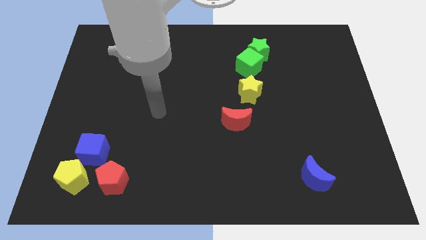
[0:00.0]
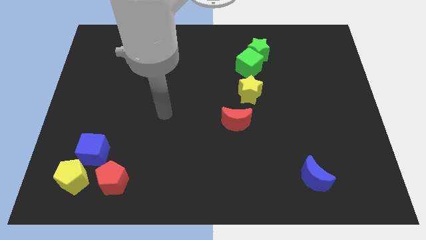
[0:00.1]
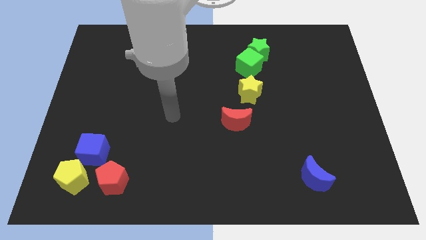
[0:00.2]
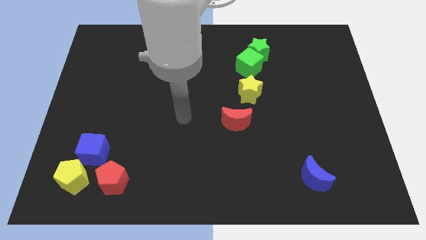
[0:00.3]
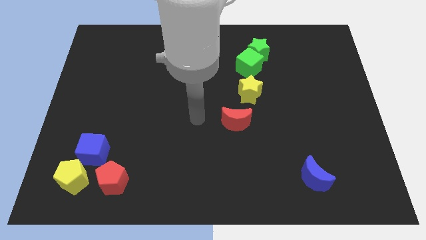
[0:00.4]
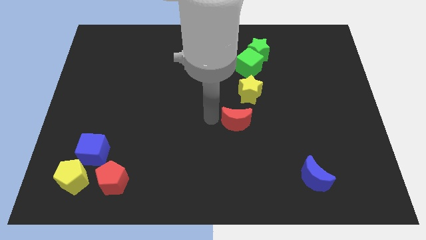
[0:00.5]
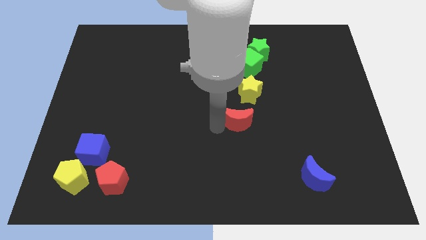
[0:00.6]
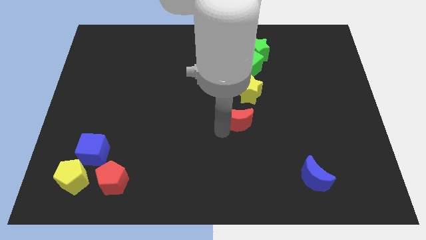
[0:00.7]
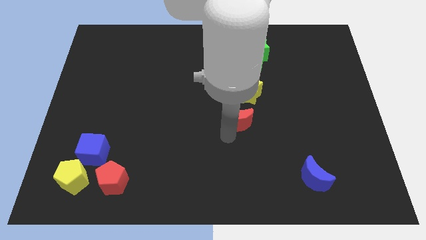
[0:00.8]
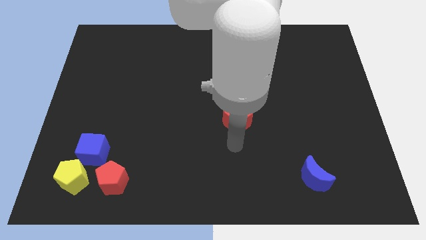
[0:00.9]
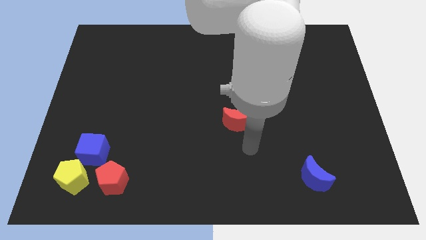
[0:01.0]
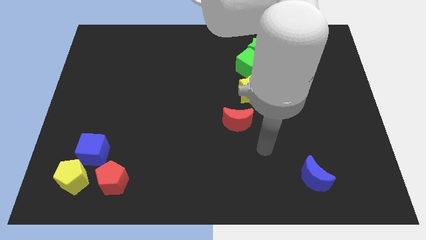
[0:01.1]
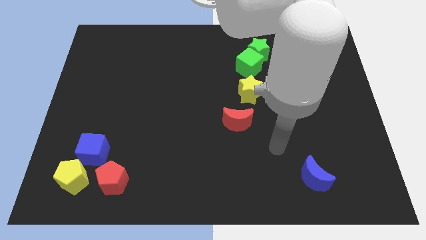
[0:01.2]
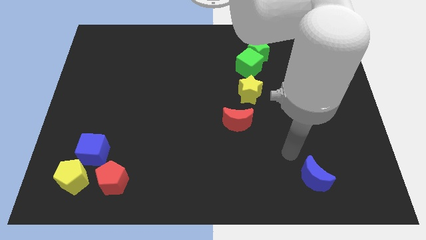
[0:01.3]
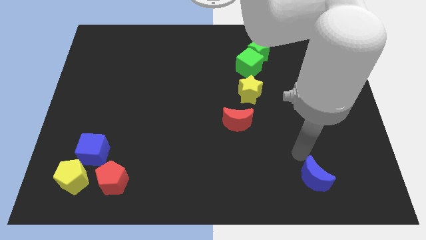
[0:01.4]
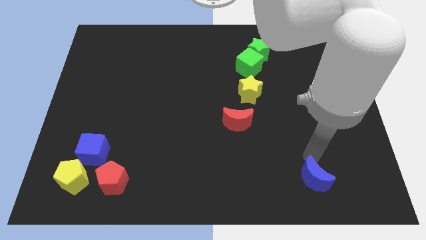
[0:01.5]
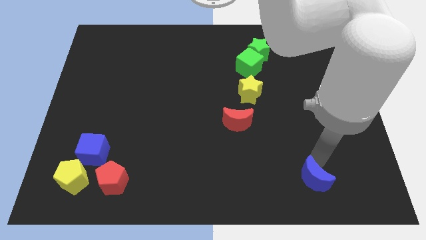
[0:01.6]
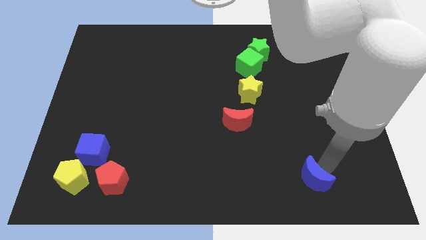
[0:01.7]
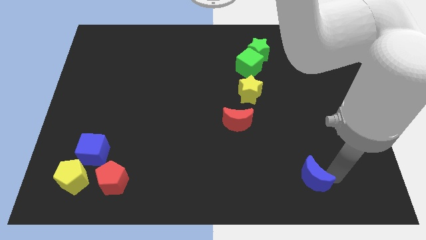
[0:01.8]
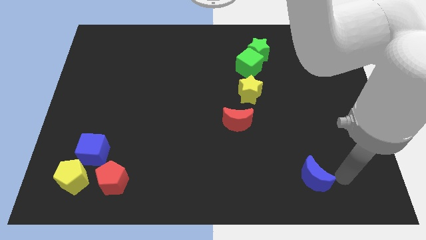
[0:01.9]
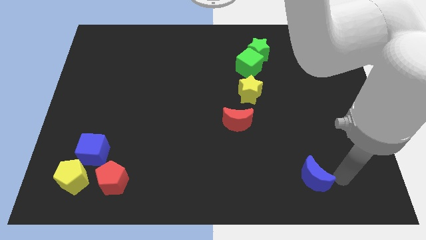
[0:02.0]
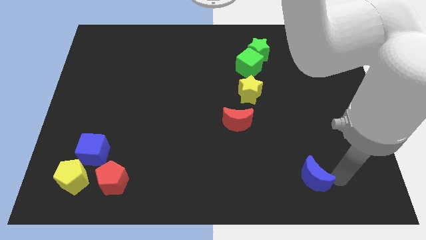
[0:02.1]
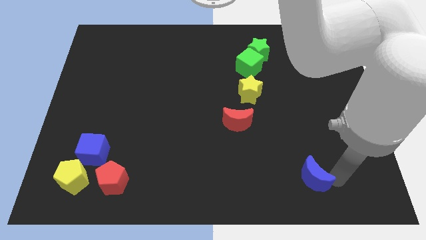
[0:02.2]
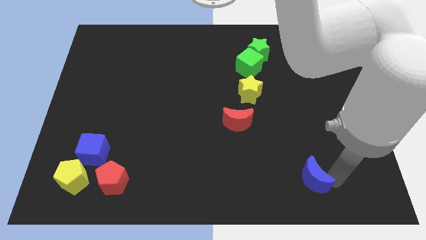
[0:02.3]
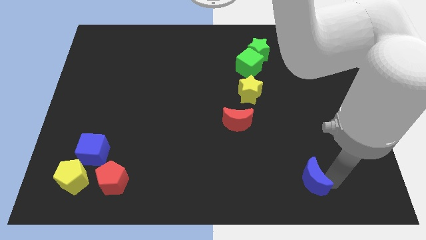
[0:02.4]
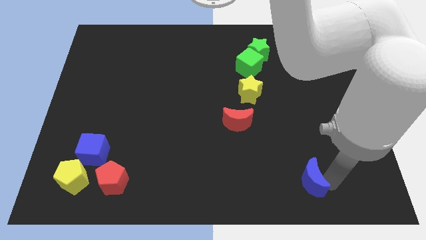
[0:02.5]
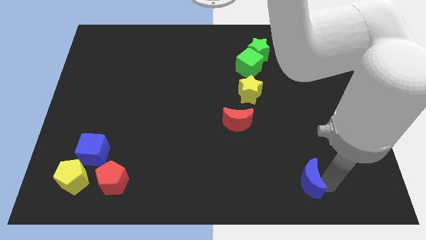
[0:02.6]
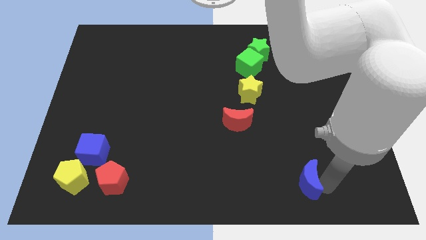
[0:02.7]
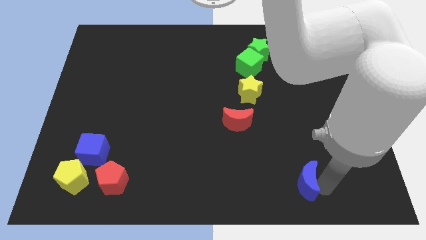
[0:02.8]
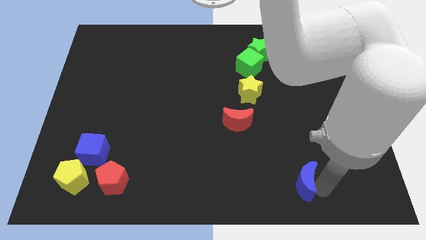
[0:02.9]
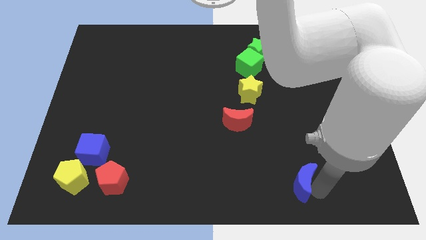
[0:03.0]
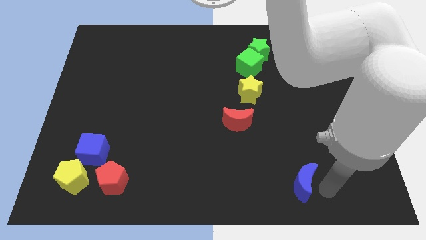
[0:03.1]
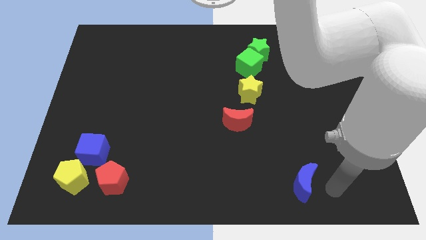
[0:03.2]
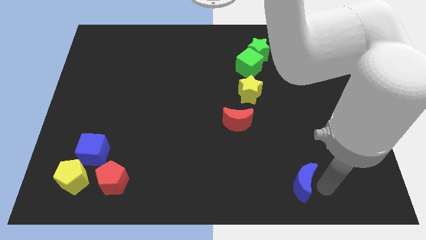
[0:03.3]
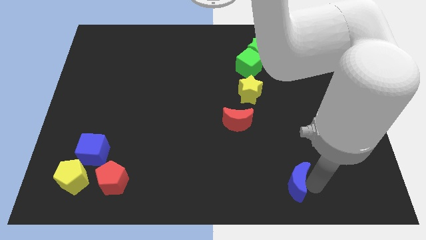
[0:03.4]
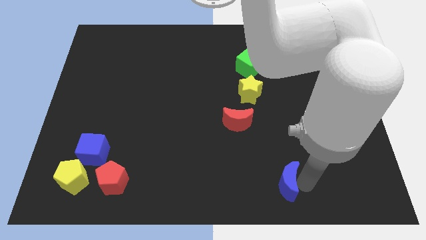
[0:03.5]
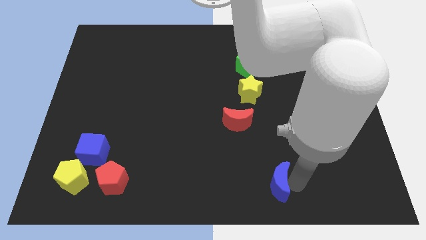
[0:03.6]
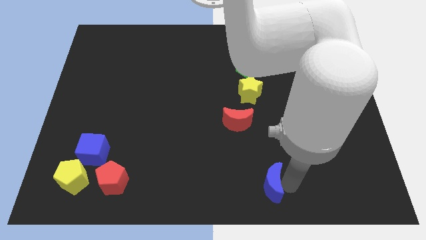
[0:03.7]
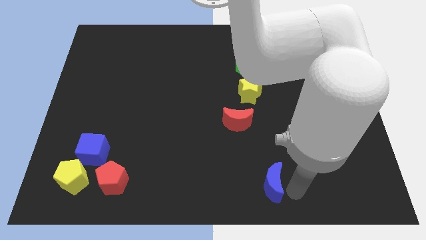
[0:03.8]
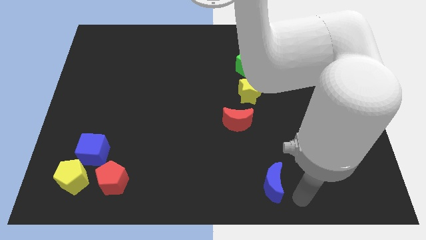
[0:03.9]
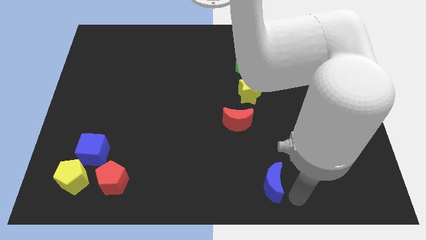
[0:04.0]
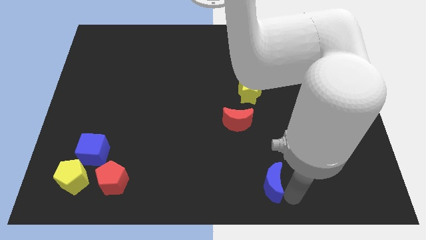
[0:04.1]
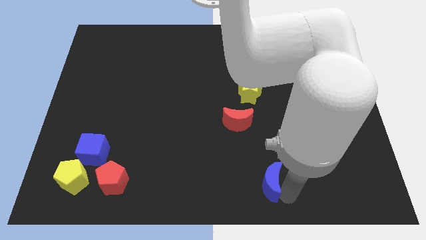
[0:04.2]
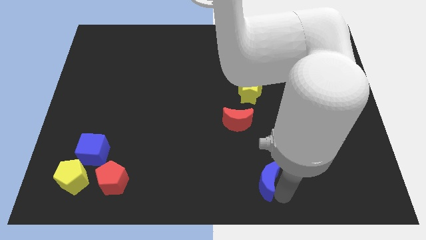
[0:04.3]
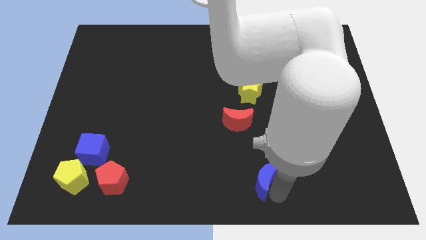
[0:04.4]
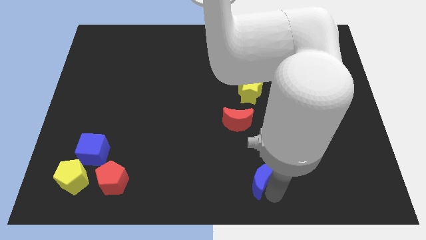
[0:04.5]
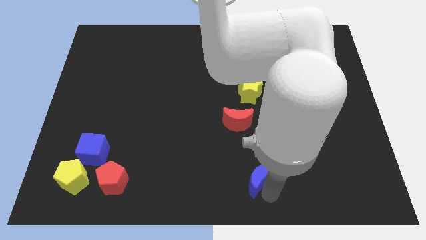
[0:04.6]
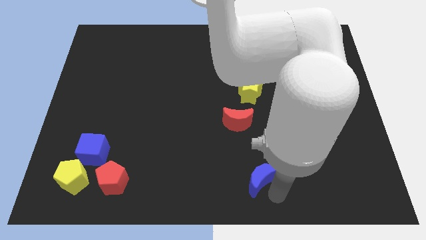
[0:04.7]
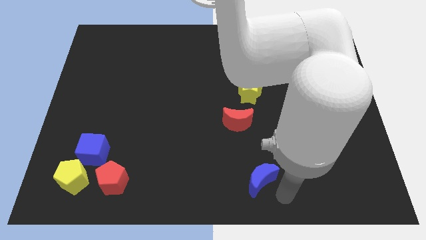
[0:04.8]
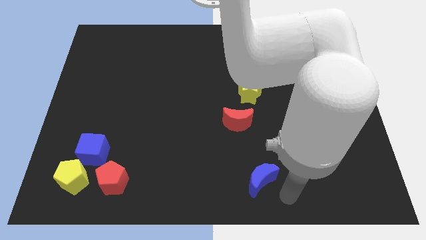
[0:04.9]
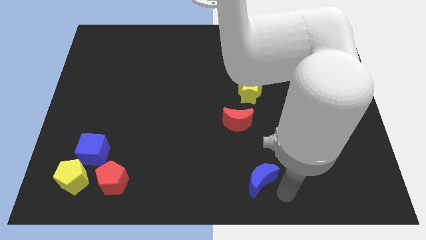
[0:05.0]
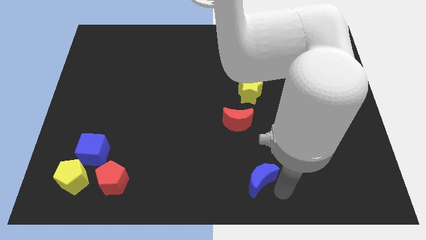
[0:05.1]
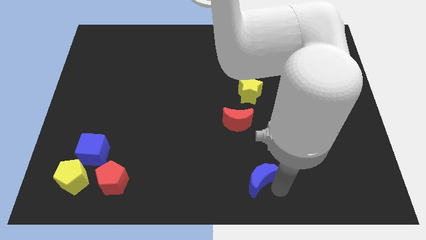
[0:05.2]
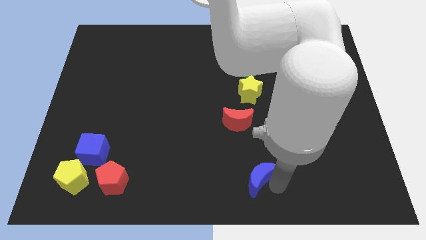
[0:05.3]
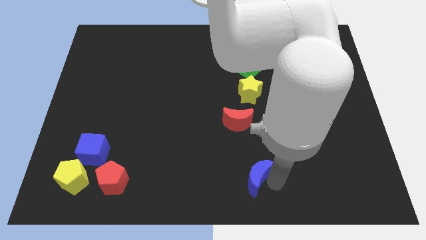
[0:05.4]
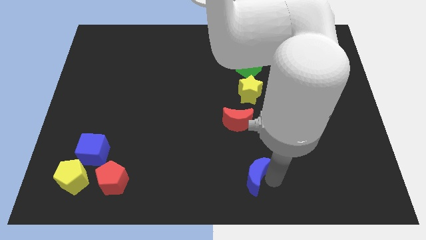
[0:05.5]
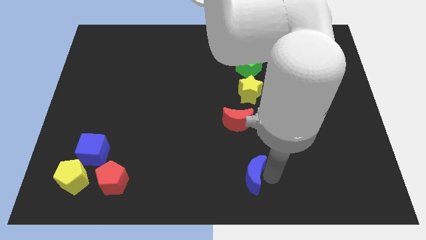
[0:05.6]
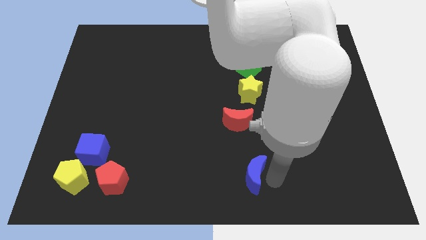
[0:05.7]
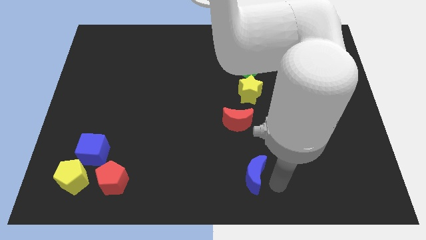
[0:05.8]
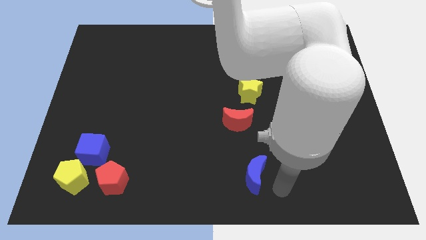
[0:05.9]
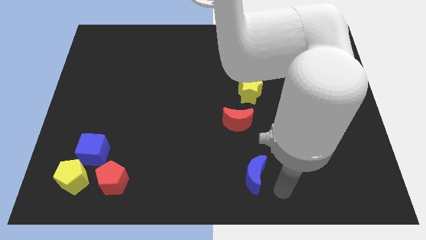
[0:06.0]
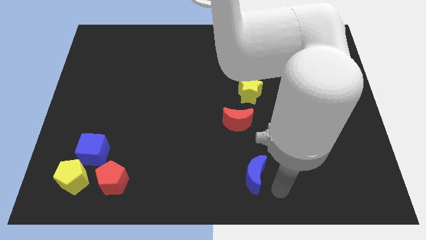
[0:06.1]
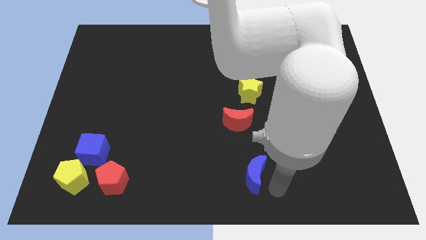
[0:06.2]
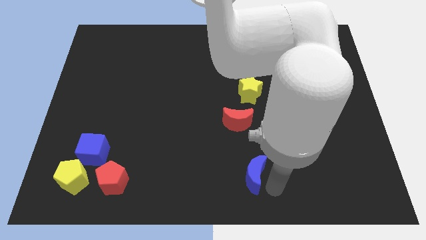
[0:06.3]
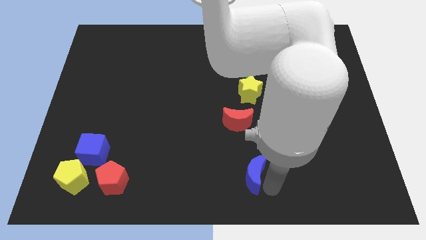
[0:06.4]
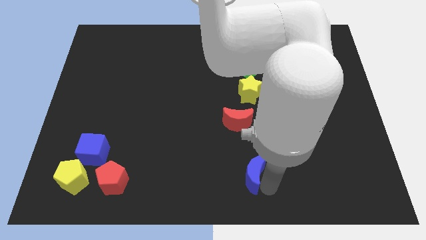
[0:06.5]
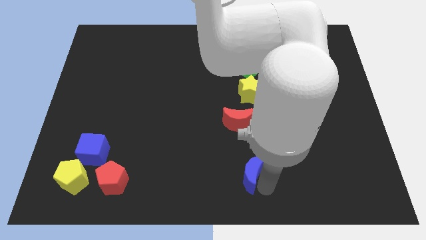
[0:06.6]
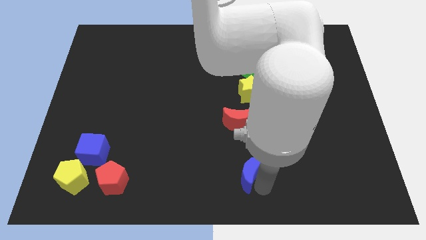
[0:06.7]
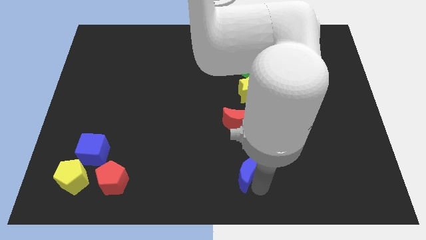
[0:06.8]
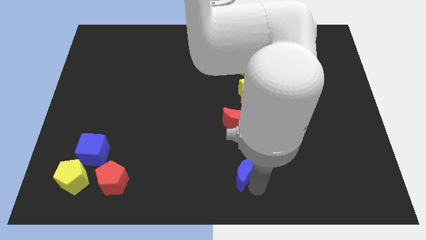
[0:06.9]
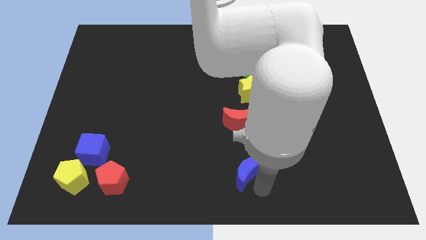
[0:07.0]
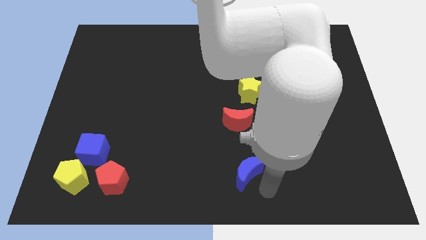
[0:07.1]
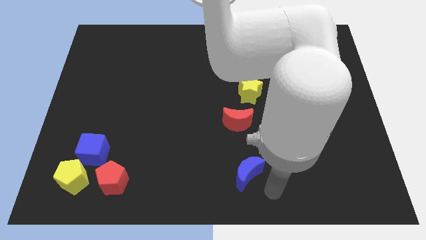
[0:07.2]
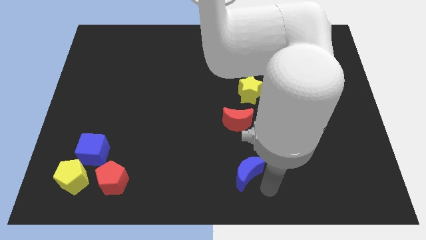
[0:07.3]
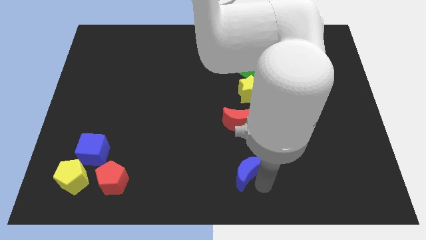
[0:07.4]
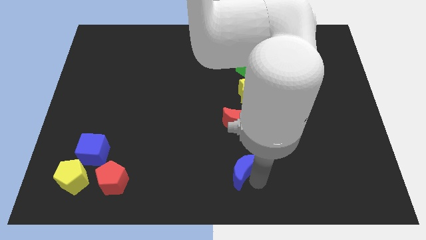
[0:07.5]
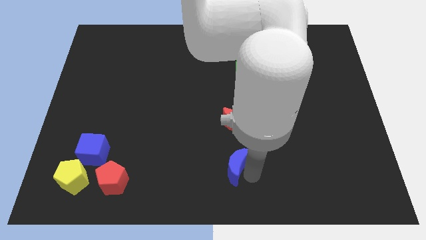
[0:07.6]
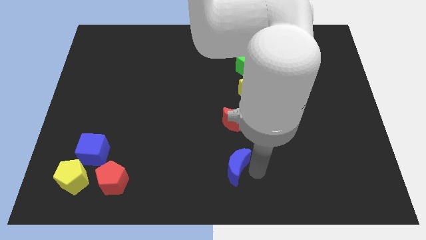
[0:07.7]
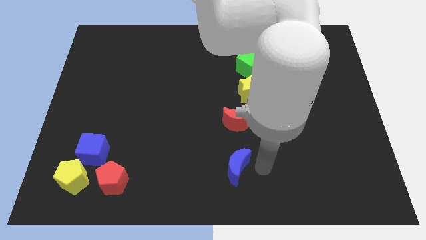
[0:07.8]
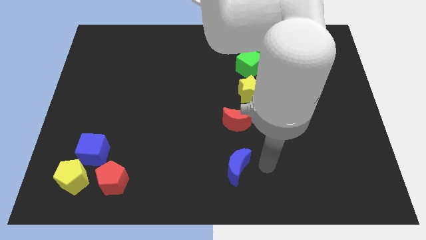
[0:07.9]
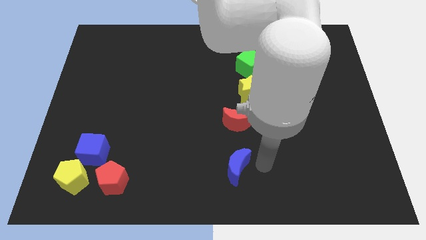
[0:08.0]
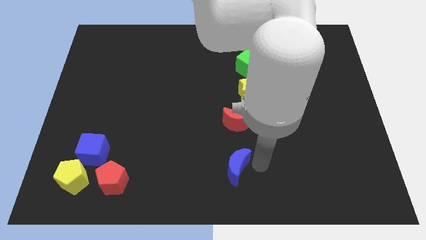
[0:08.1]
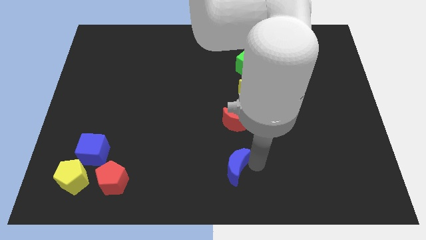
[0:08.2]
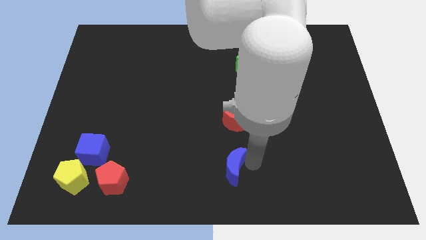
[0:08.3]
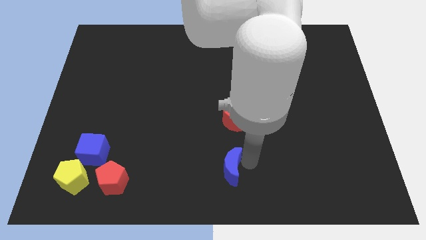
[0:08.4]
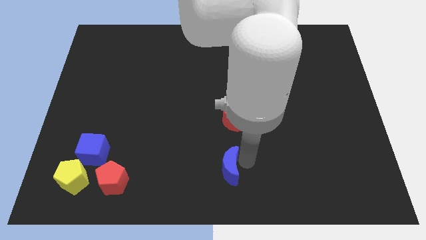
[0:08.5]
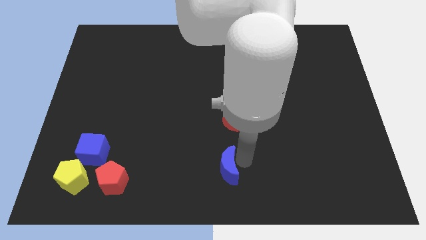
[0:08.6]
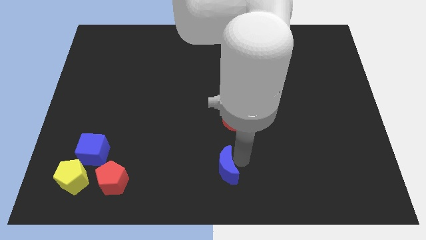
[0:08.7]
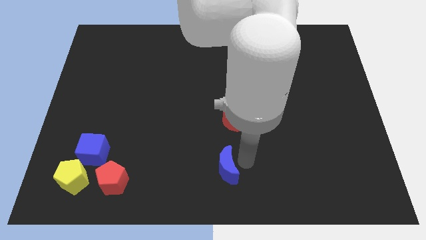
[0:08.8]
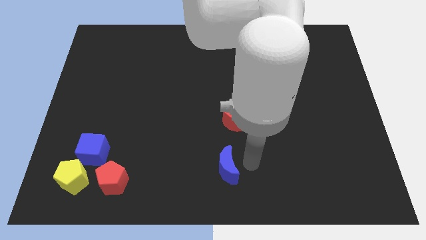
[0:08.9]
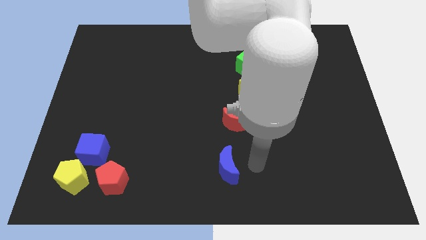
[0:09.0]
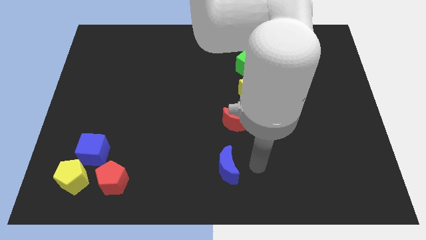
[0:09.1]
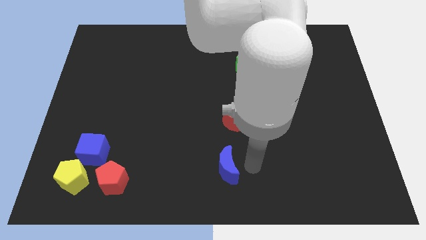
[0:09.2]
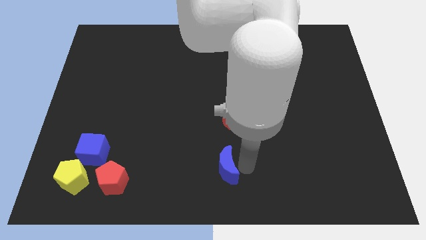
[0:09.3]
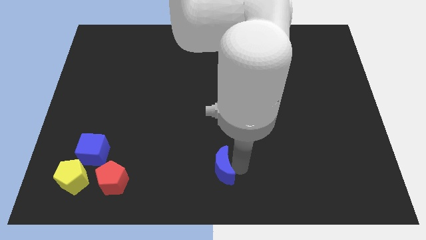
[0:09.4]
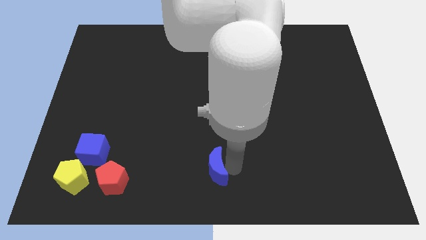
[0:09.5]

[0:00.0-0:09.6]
move the blue moon to the left
